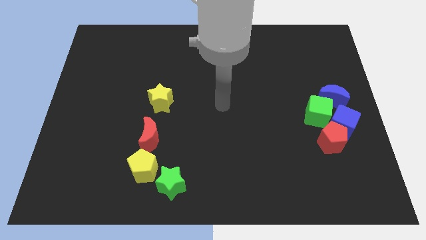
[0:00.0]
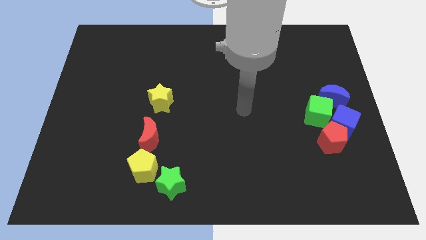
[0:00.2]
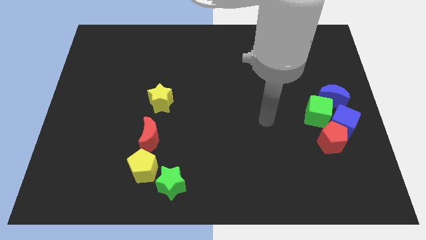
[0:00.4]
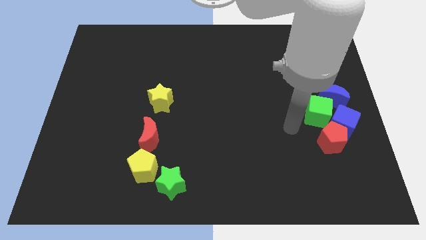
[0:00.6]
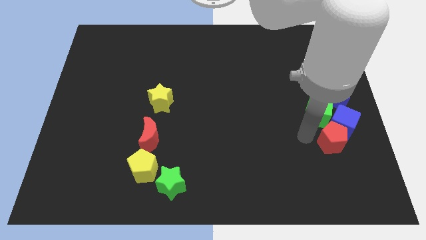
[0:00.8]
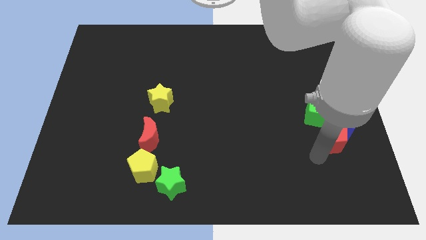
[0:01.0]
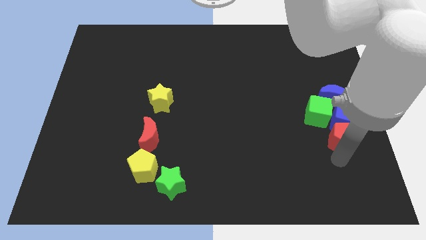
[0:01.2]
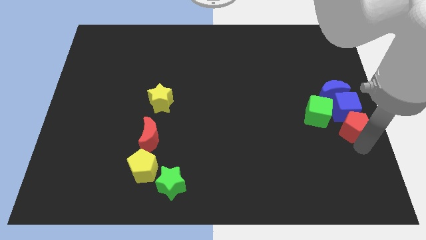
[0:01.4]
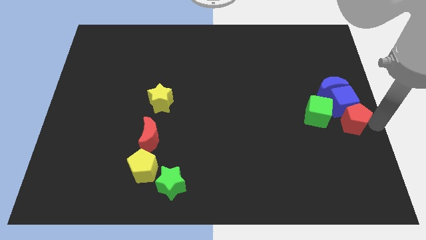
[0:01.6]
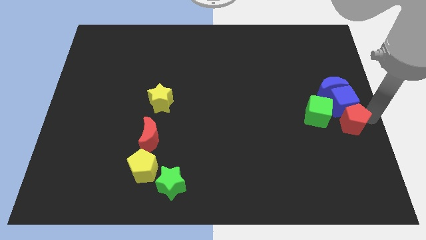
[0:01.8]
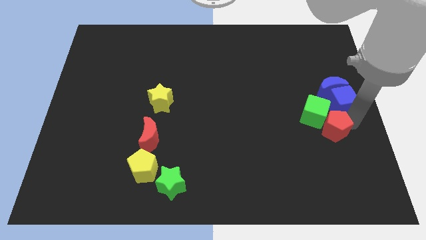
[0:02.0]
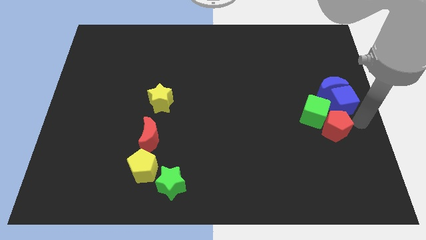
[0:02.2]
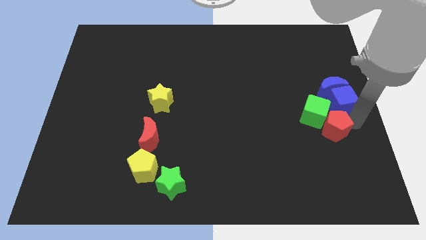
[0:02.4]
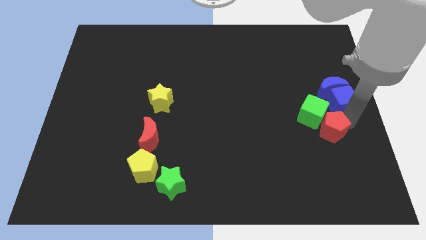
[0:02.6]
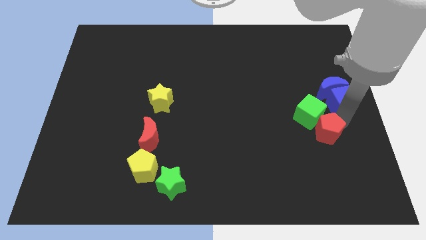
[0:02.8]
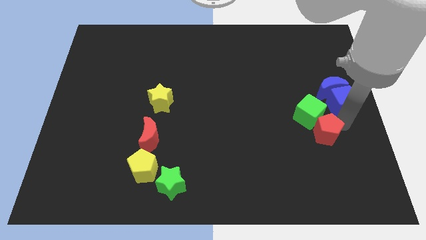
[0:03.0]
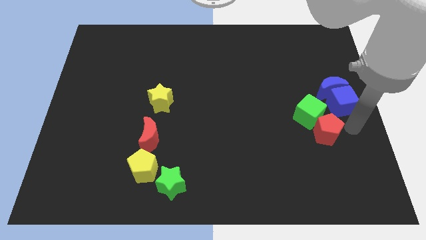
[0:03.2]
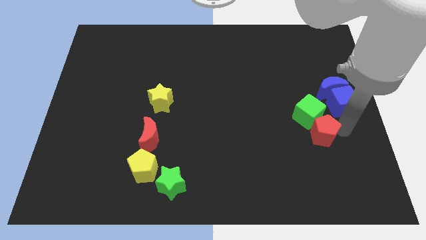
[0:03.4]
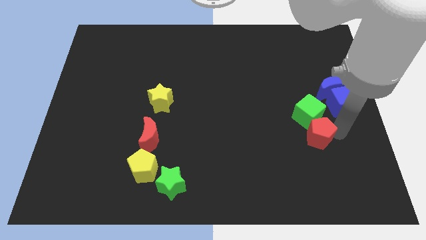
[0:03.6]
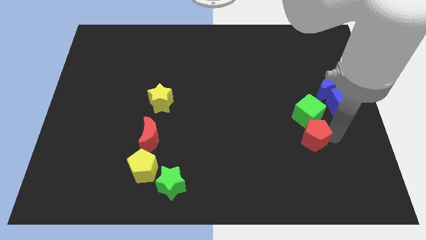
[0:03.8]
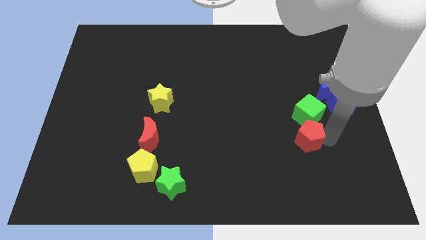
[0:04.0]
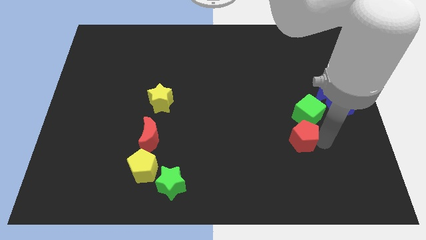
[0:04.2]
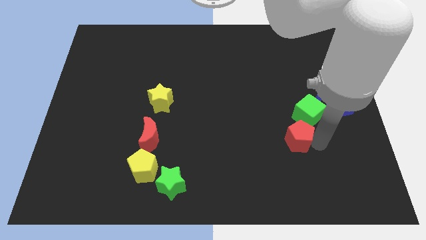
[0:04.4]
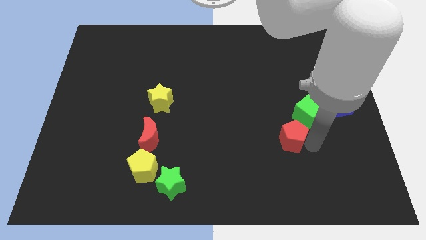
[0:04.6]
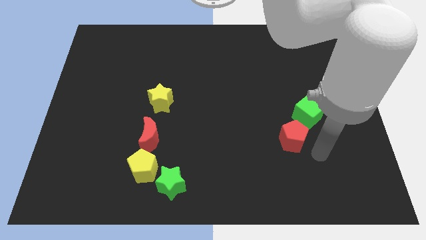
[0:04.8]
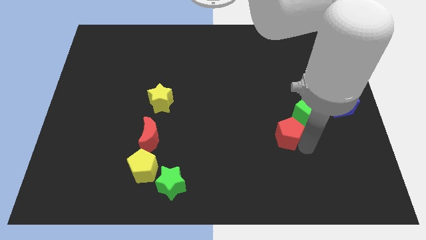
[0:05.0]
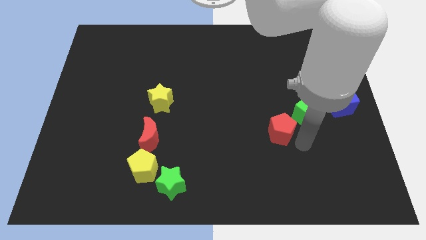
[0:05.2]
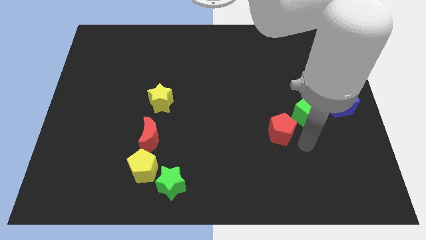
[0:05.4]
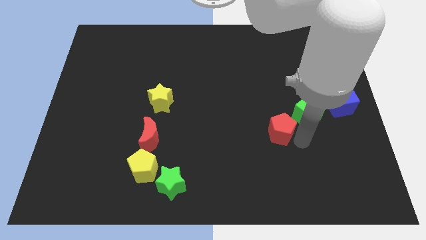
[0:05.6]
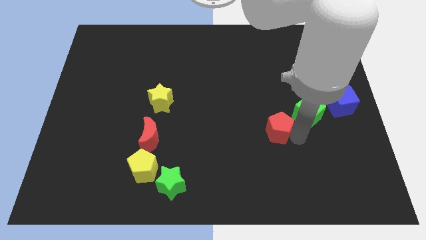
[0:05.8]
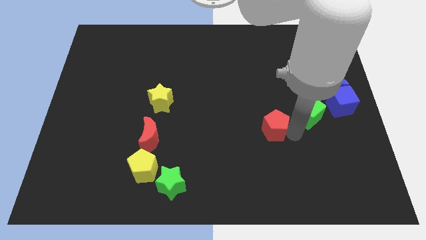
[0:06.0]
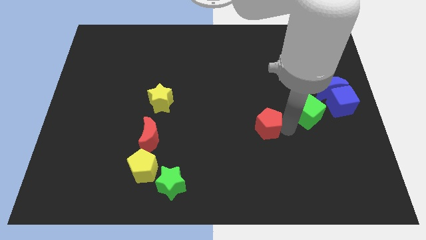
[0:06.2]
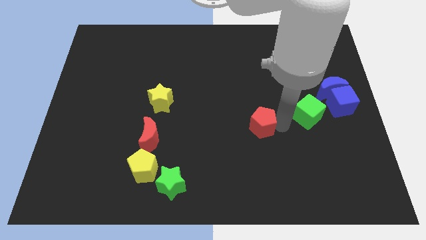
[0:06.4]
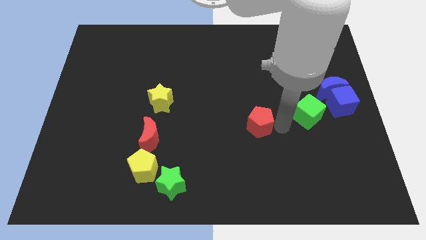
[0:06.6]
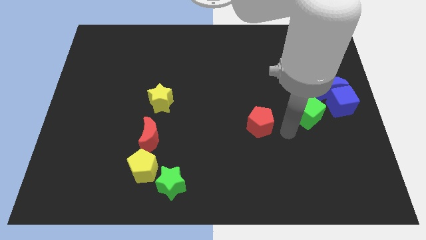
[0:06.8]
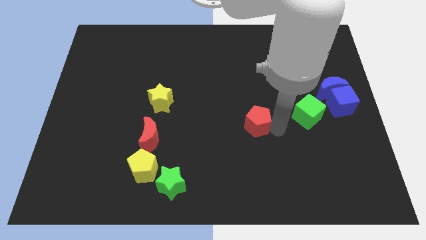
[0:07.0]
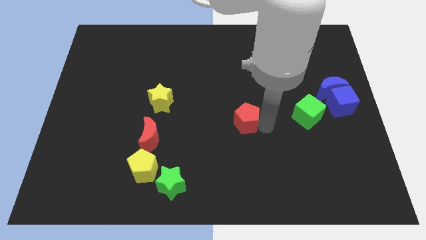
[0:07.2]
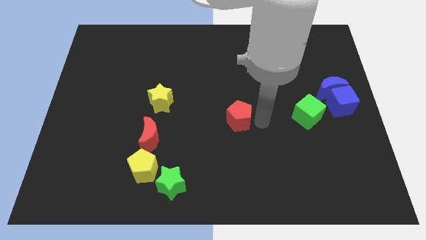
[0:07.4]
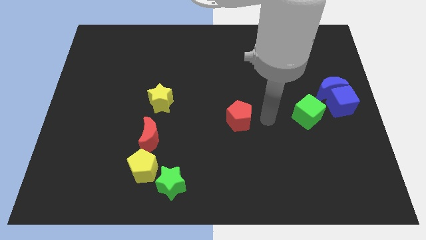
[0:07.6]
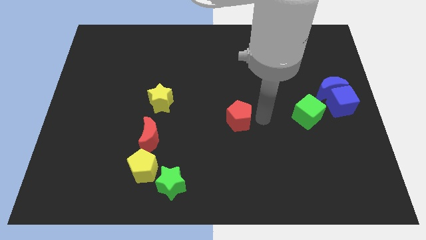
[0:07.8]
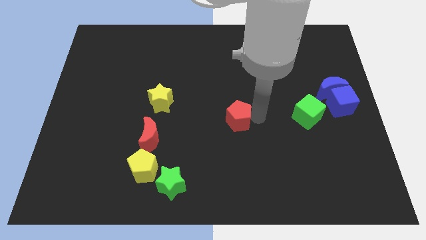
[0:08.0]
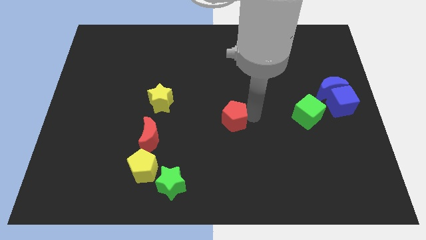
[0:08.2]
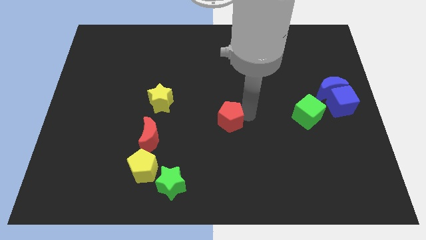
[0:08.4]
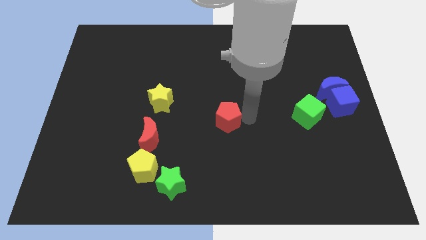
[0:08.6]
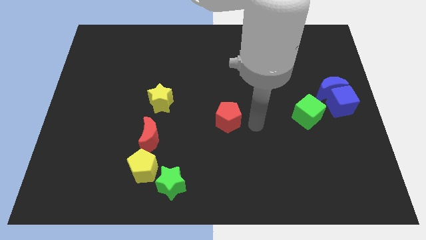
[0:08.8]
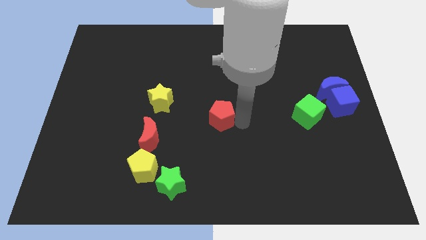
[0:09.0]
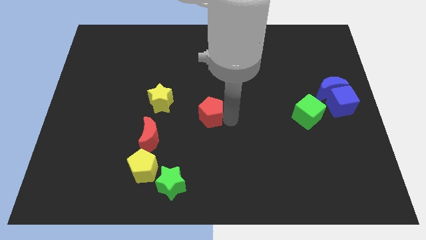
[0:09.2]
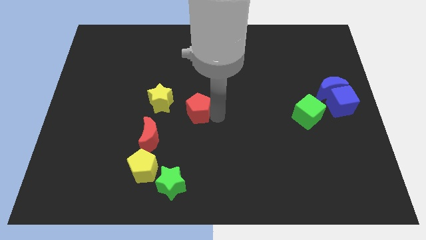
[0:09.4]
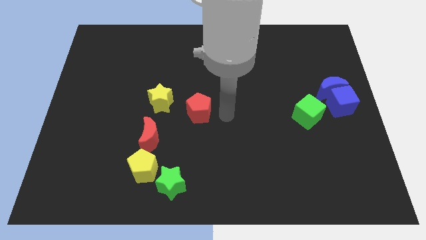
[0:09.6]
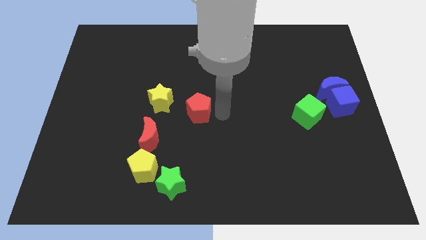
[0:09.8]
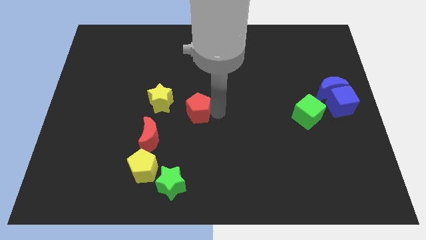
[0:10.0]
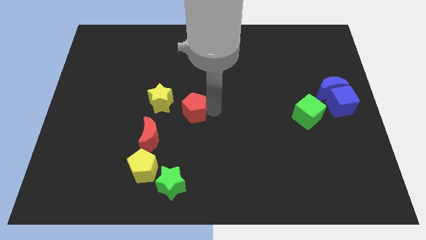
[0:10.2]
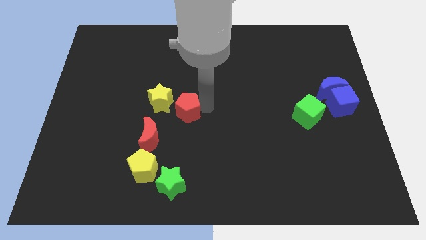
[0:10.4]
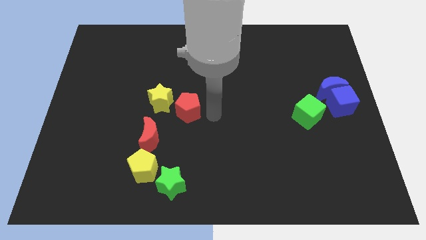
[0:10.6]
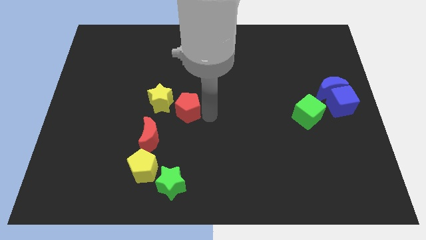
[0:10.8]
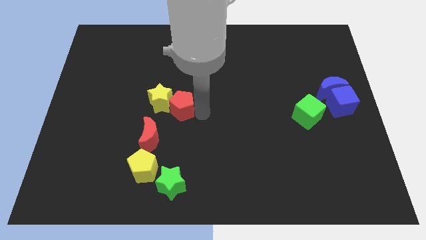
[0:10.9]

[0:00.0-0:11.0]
push the red pentagon close to the yellow star

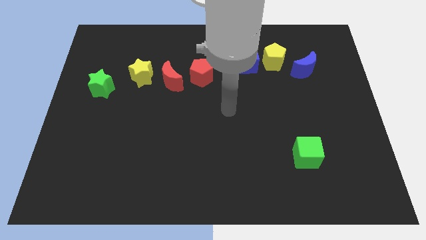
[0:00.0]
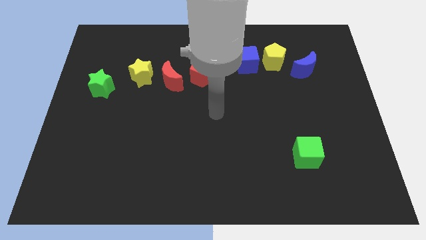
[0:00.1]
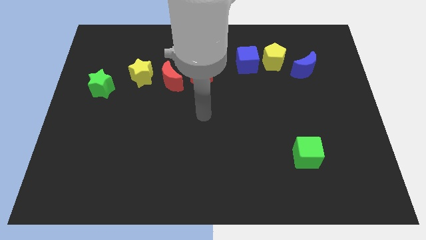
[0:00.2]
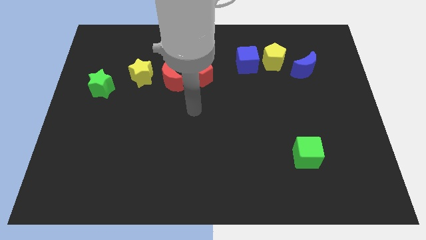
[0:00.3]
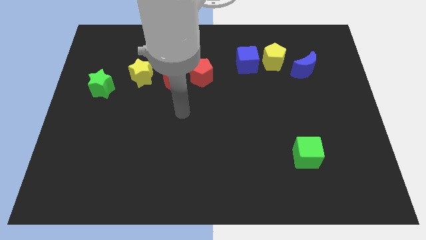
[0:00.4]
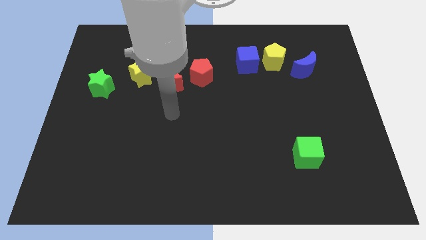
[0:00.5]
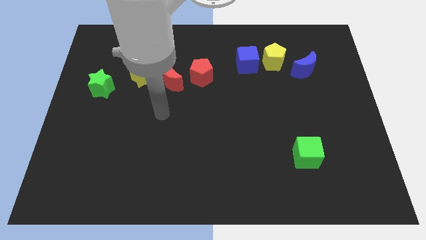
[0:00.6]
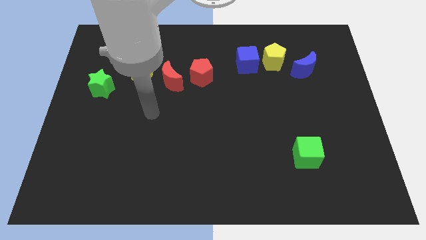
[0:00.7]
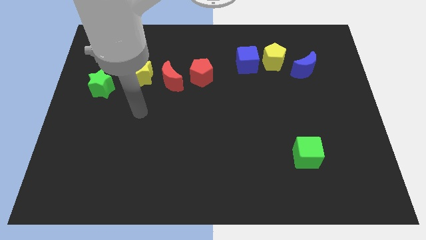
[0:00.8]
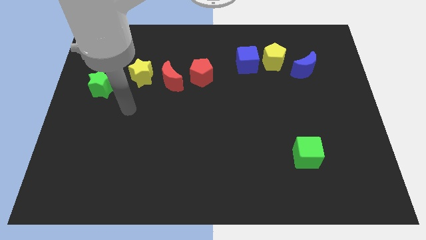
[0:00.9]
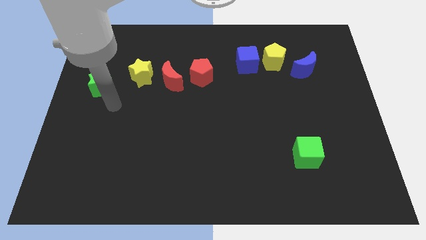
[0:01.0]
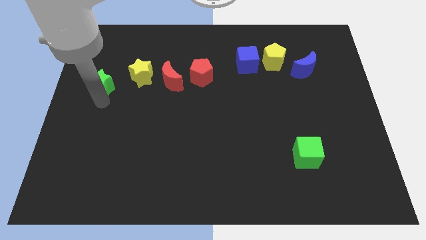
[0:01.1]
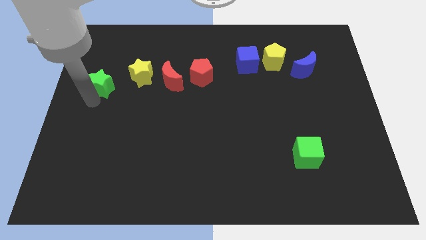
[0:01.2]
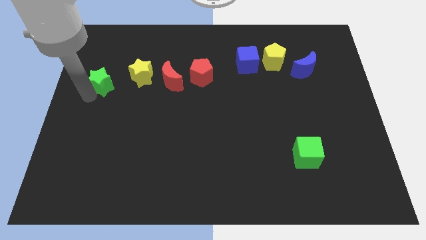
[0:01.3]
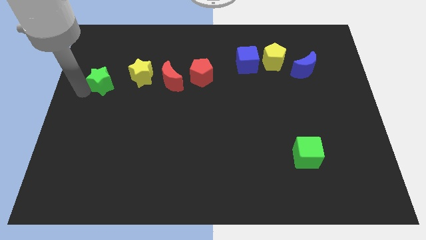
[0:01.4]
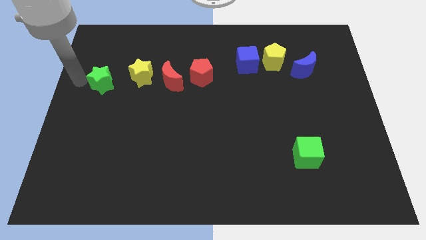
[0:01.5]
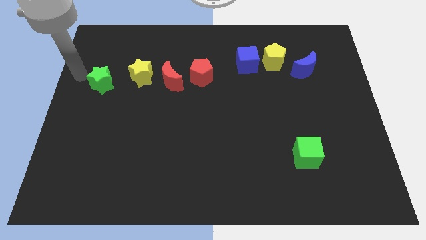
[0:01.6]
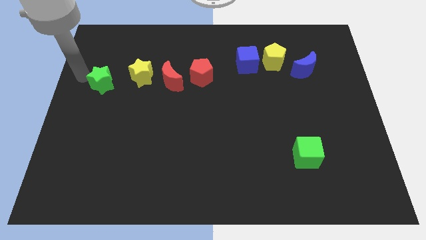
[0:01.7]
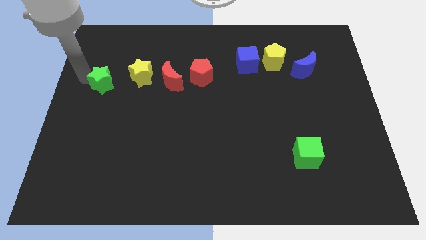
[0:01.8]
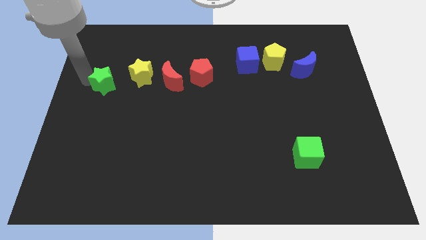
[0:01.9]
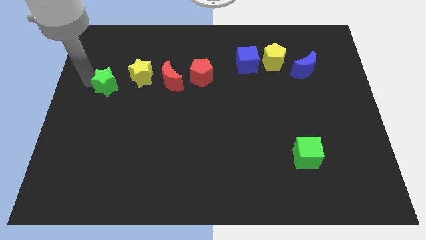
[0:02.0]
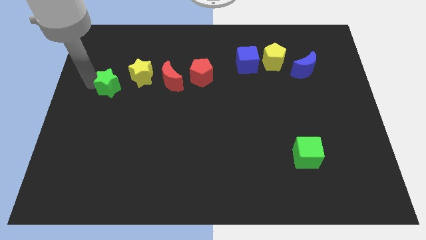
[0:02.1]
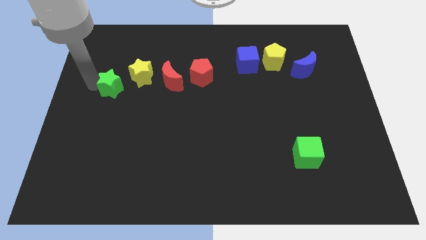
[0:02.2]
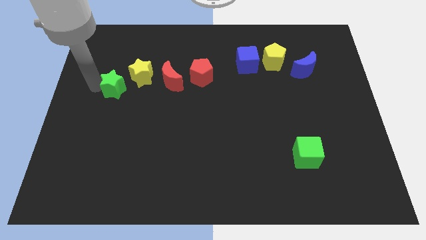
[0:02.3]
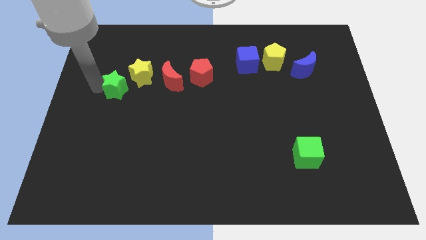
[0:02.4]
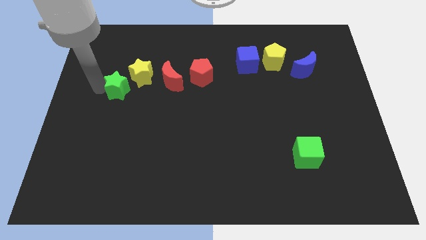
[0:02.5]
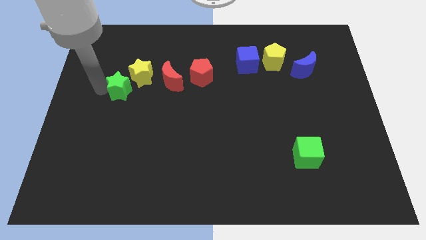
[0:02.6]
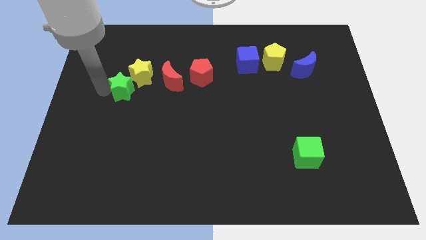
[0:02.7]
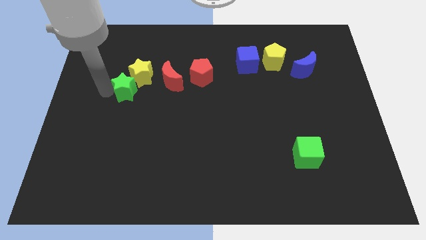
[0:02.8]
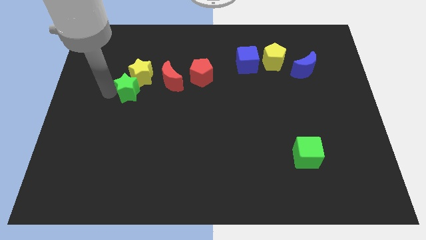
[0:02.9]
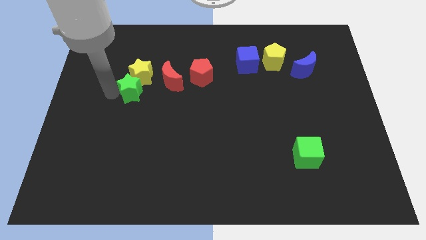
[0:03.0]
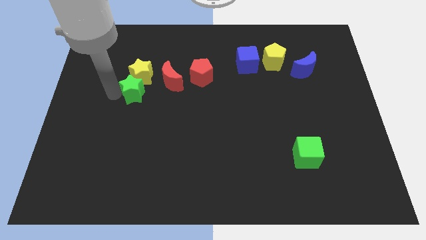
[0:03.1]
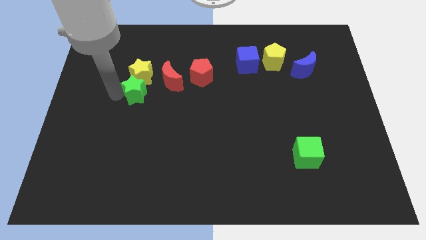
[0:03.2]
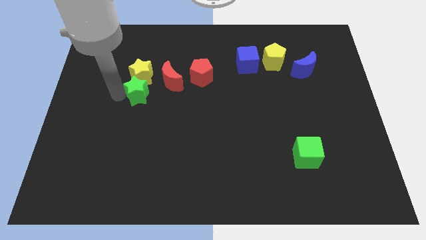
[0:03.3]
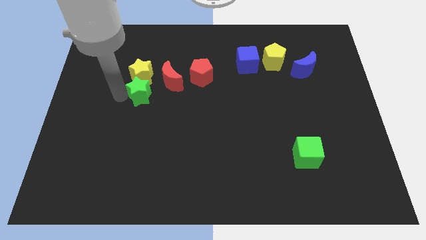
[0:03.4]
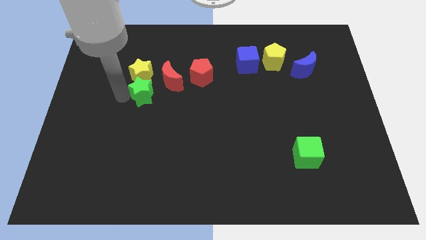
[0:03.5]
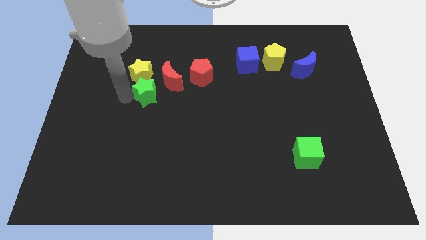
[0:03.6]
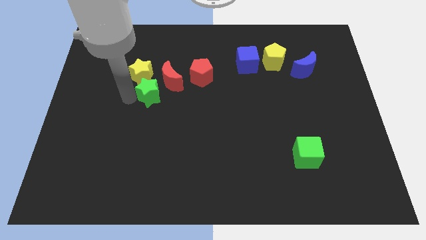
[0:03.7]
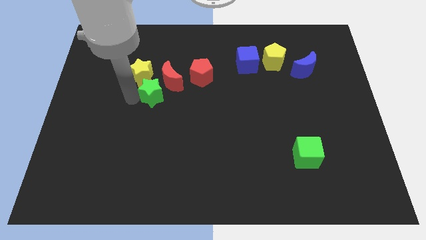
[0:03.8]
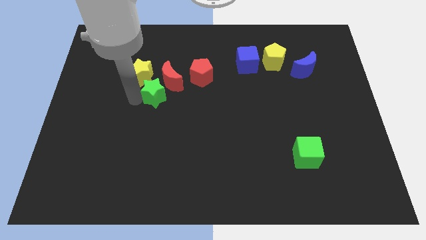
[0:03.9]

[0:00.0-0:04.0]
move the green star towards the red moon
